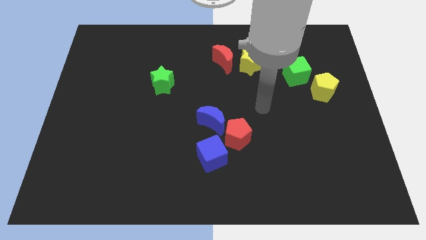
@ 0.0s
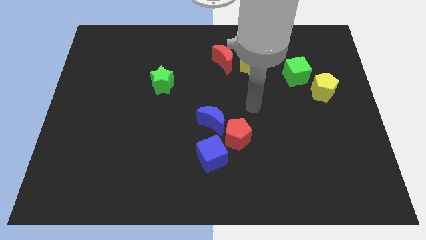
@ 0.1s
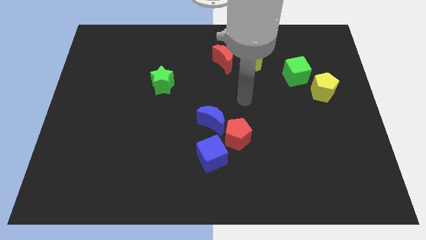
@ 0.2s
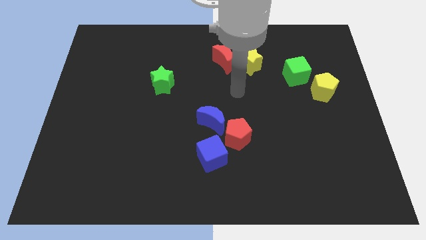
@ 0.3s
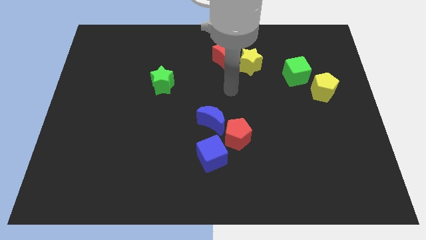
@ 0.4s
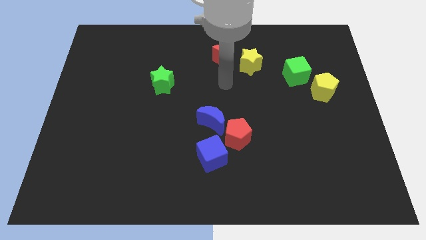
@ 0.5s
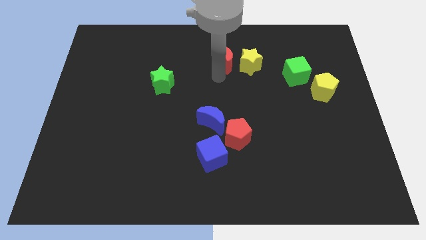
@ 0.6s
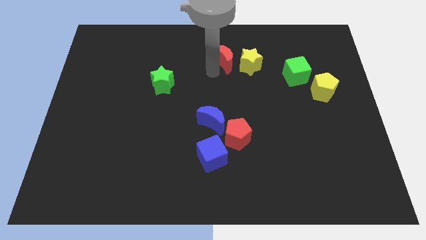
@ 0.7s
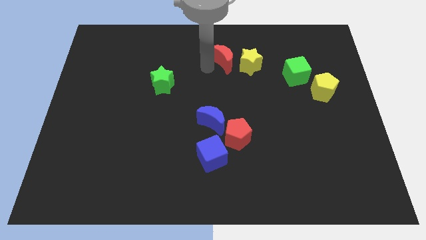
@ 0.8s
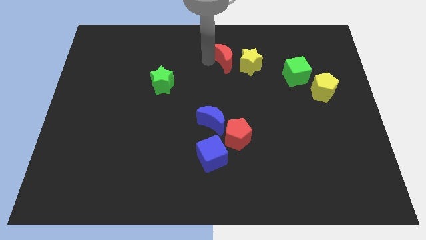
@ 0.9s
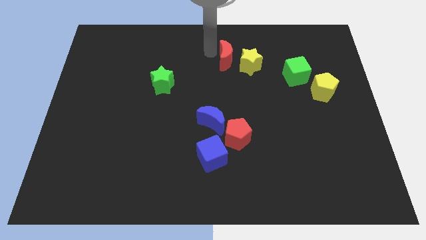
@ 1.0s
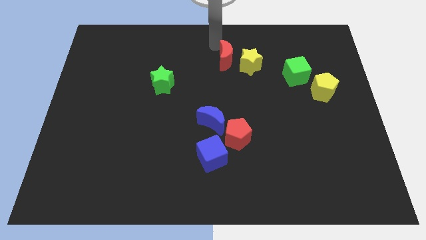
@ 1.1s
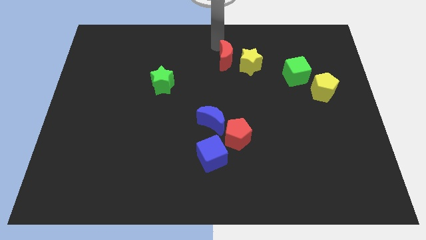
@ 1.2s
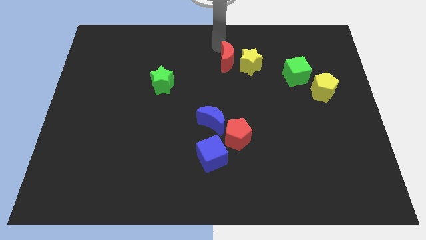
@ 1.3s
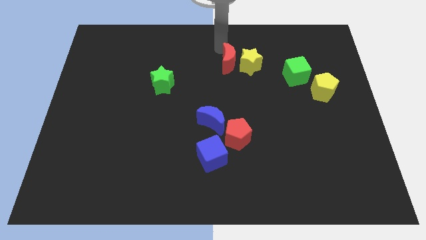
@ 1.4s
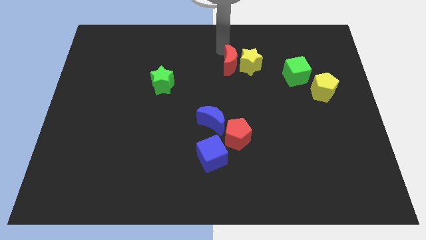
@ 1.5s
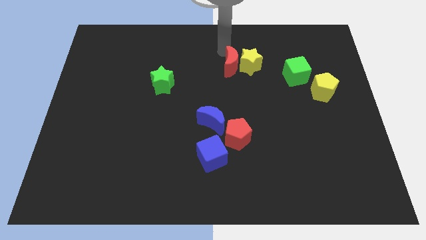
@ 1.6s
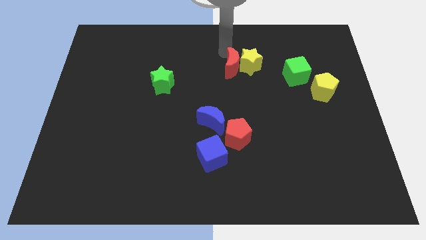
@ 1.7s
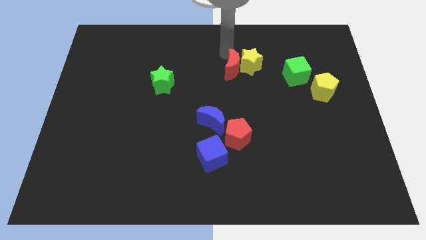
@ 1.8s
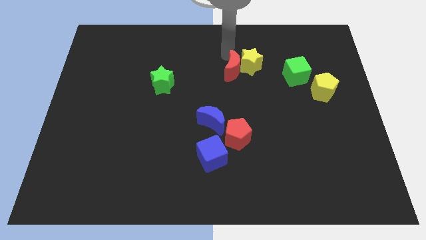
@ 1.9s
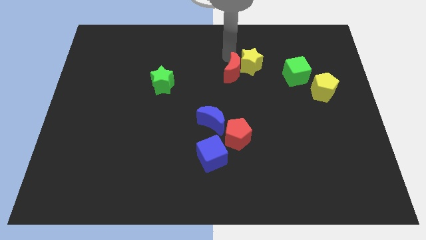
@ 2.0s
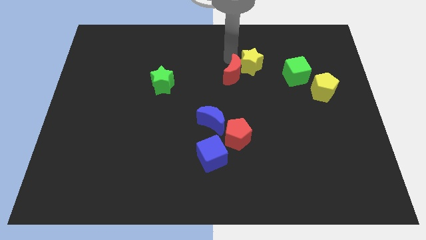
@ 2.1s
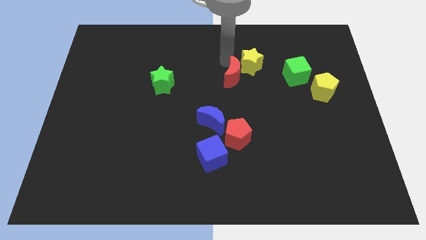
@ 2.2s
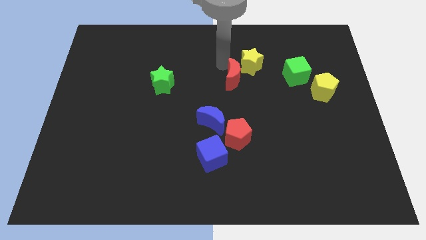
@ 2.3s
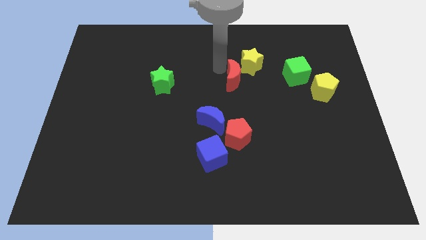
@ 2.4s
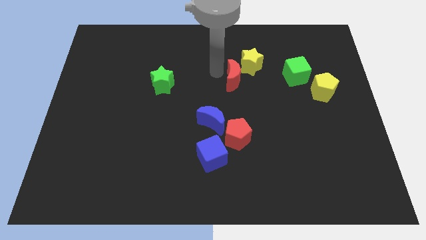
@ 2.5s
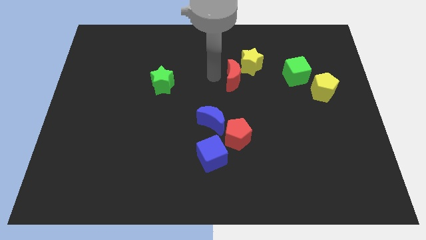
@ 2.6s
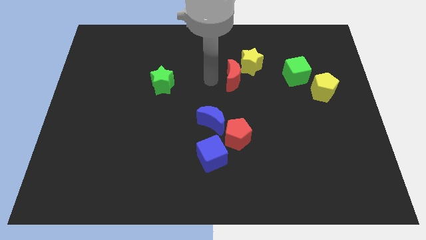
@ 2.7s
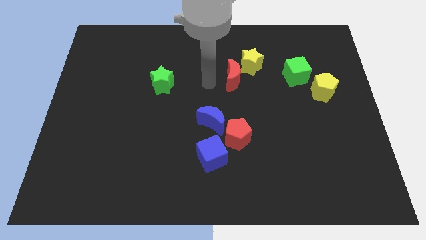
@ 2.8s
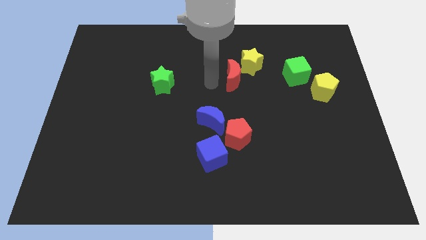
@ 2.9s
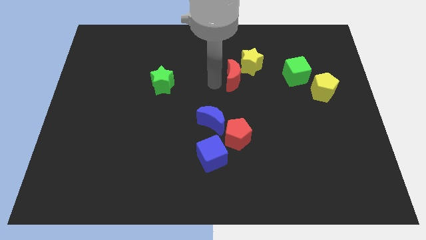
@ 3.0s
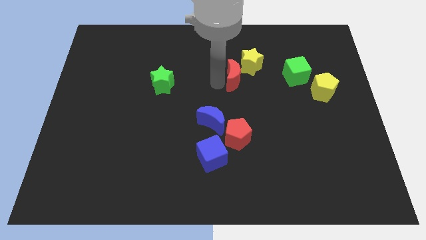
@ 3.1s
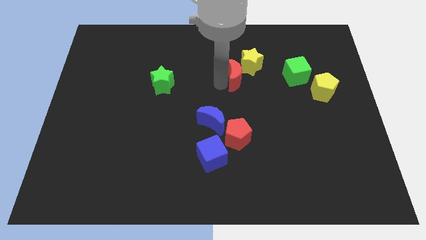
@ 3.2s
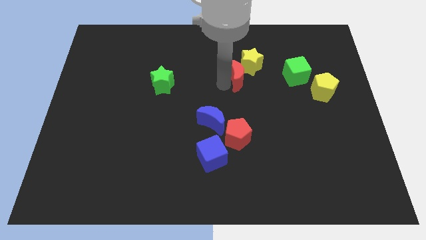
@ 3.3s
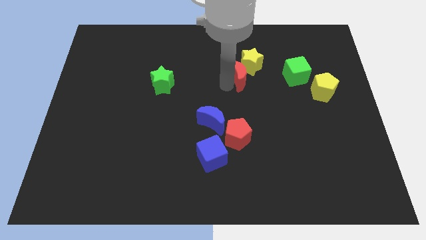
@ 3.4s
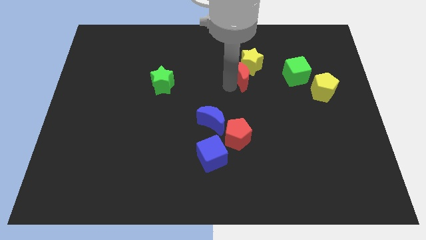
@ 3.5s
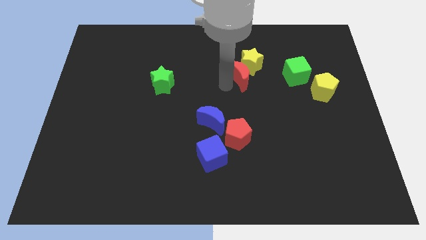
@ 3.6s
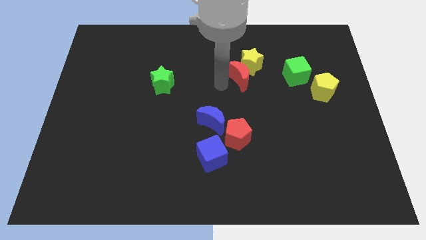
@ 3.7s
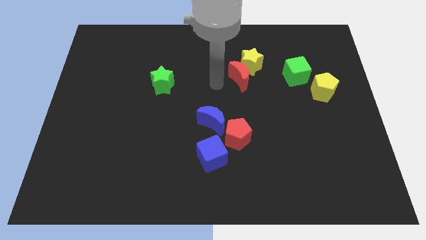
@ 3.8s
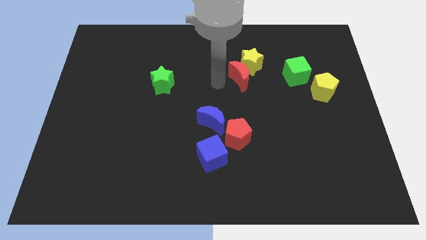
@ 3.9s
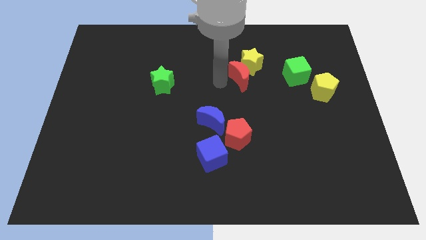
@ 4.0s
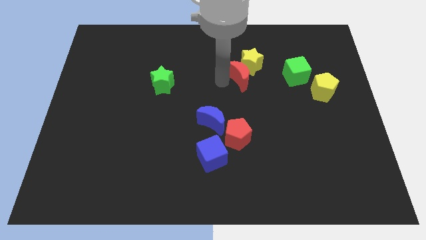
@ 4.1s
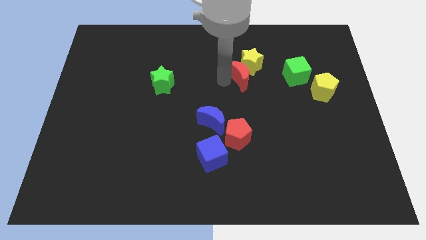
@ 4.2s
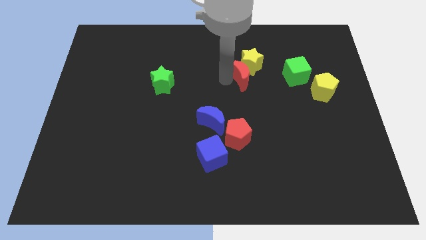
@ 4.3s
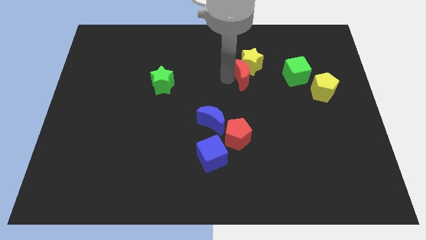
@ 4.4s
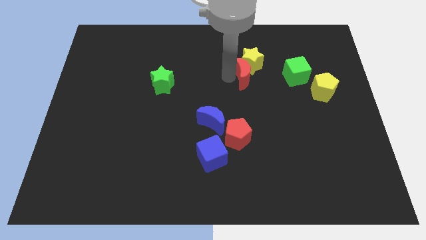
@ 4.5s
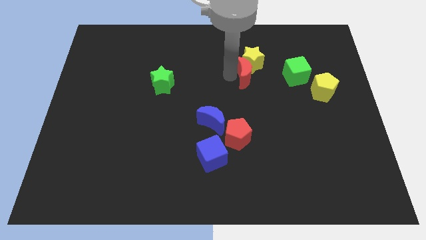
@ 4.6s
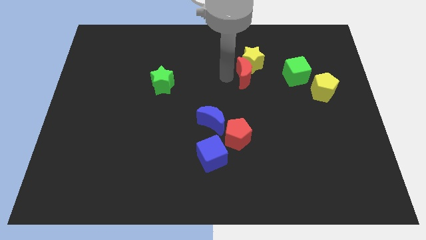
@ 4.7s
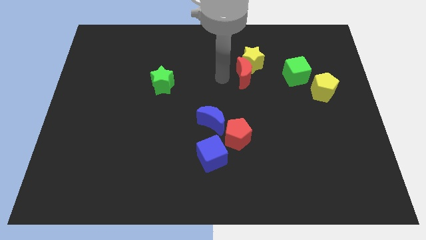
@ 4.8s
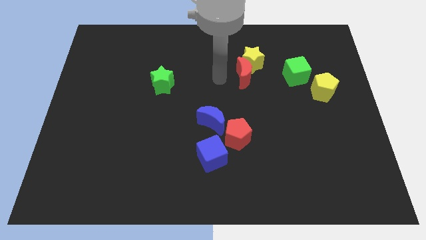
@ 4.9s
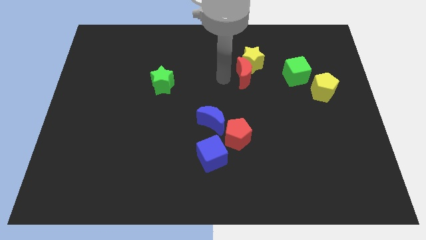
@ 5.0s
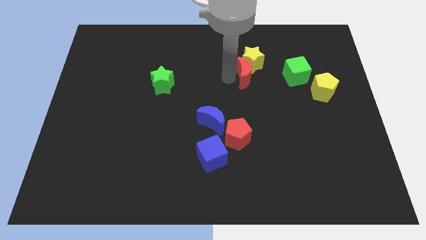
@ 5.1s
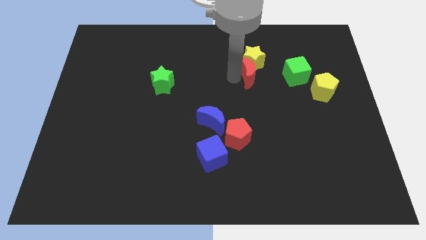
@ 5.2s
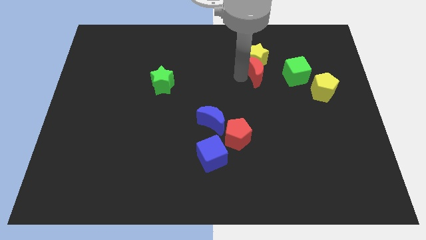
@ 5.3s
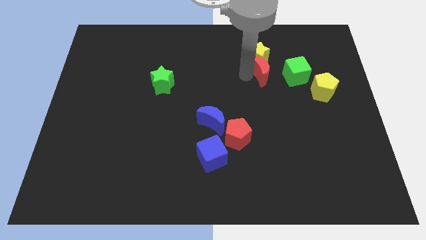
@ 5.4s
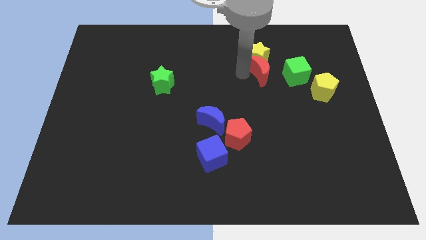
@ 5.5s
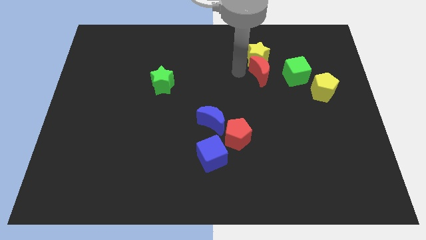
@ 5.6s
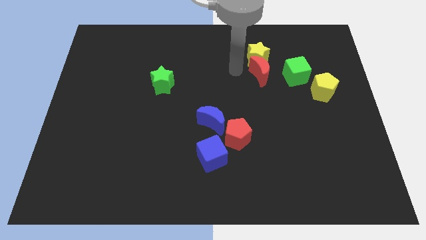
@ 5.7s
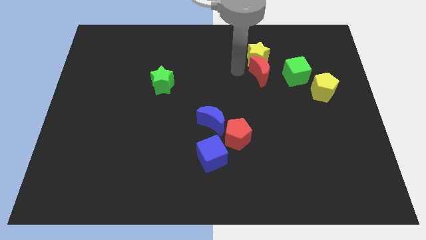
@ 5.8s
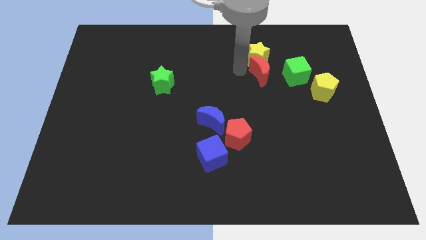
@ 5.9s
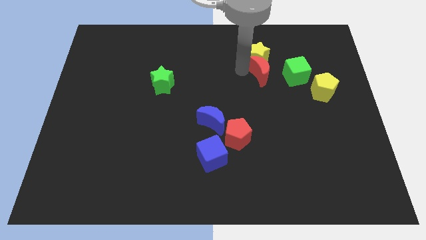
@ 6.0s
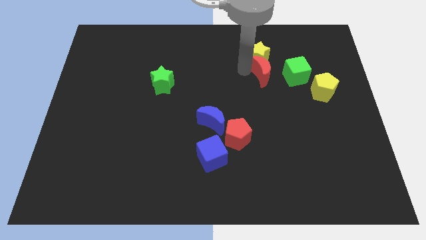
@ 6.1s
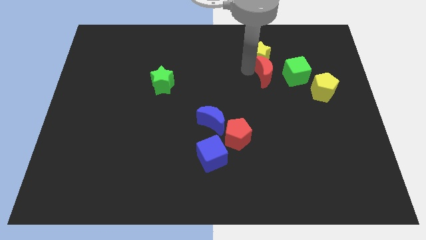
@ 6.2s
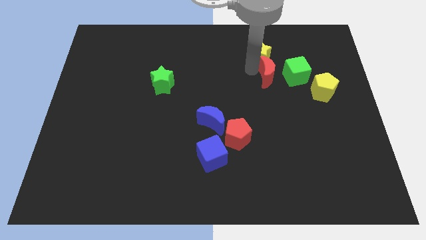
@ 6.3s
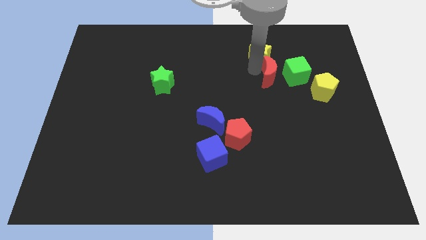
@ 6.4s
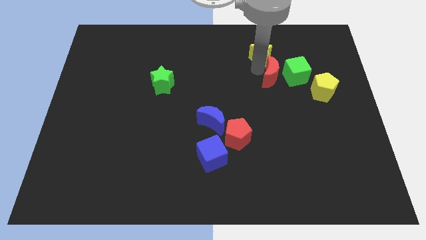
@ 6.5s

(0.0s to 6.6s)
slide the red moon to the green cube

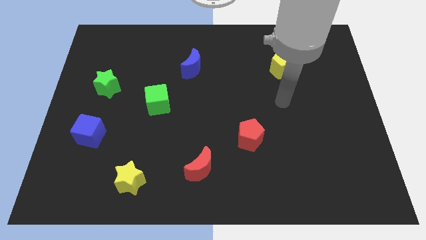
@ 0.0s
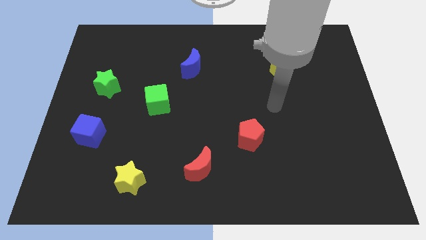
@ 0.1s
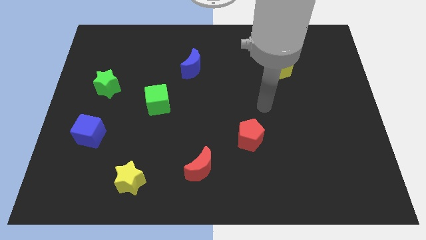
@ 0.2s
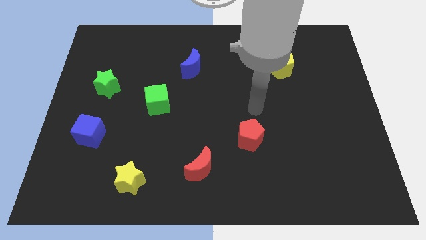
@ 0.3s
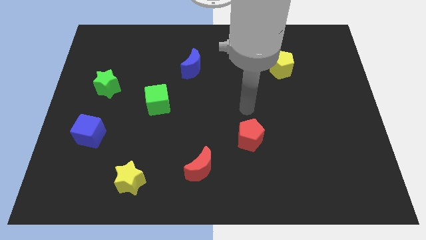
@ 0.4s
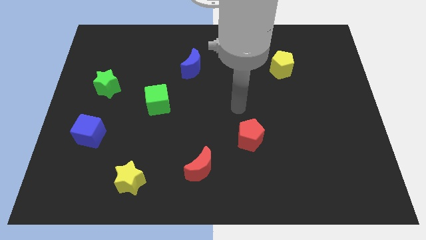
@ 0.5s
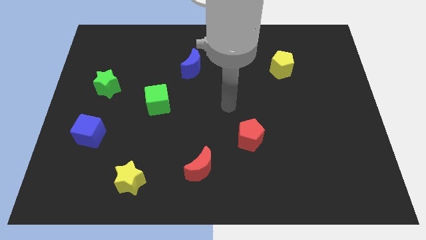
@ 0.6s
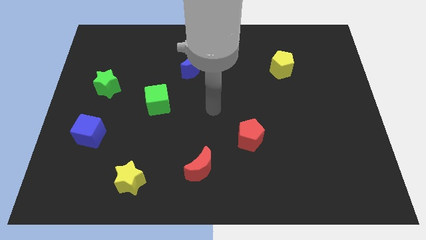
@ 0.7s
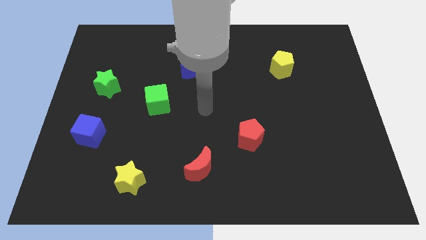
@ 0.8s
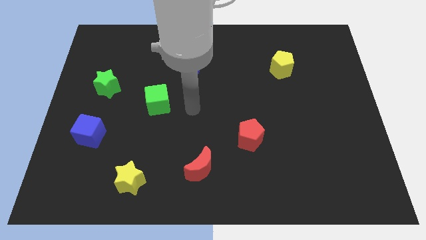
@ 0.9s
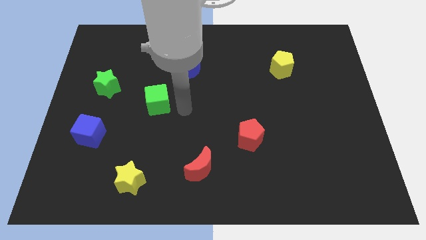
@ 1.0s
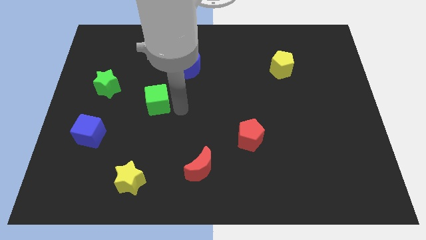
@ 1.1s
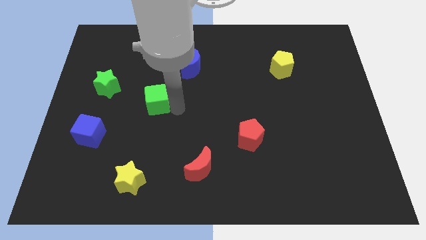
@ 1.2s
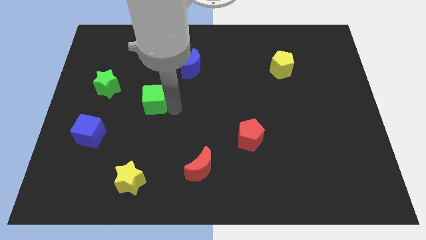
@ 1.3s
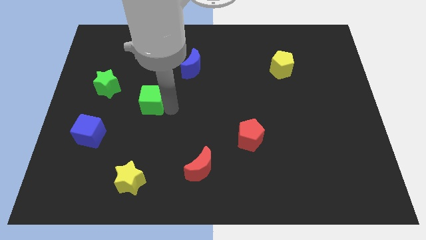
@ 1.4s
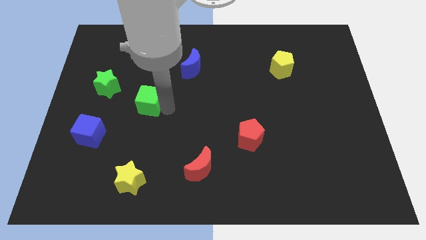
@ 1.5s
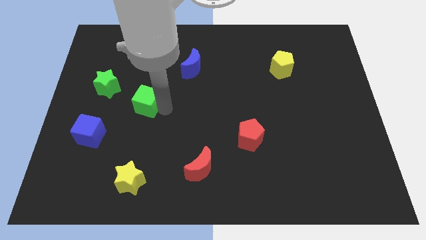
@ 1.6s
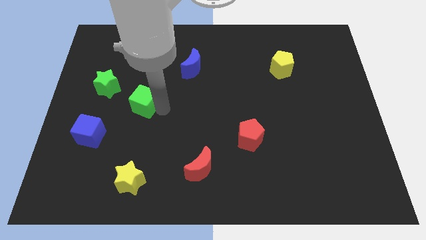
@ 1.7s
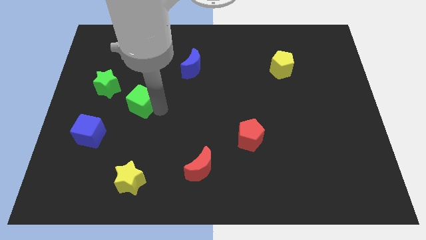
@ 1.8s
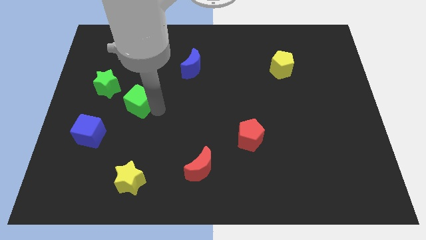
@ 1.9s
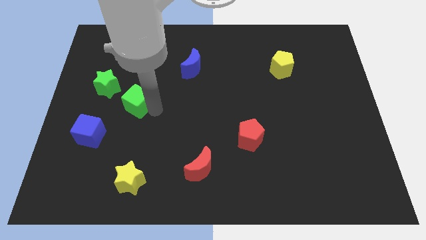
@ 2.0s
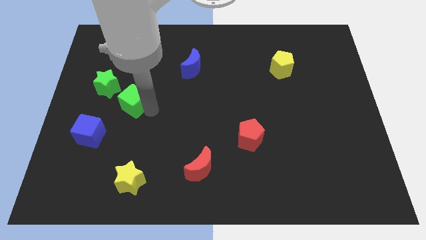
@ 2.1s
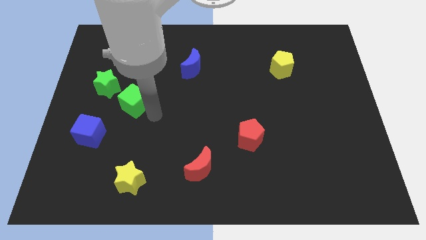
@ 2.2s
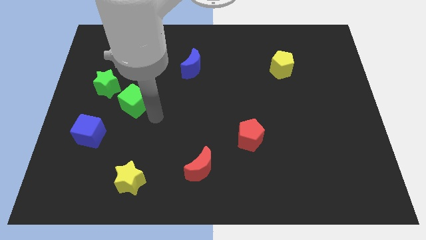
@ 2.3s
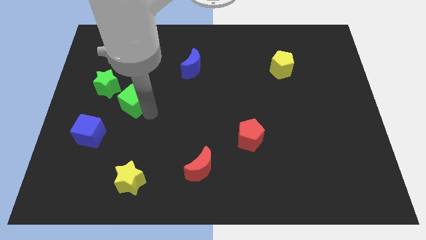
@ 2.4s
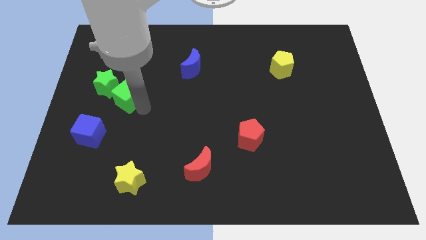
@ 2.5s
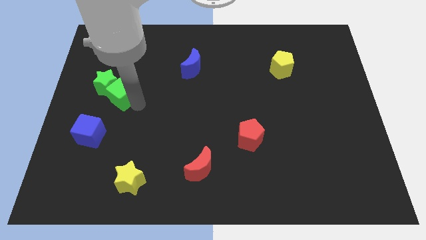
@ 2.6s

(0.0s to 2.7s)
move the green cube towards the green star
